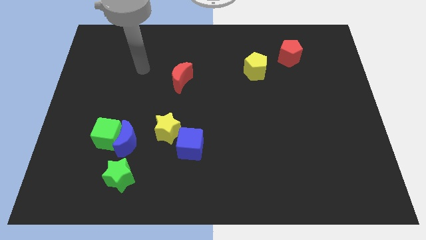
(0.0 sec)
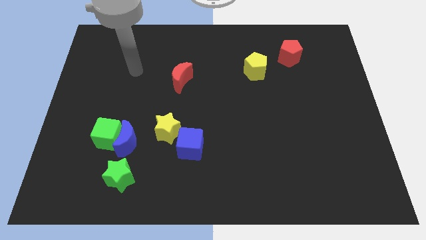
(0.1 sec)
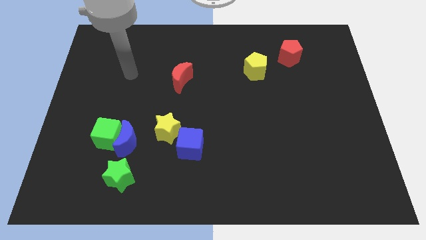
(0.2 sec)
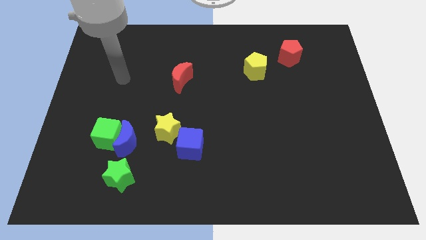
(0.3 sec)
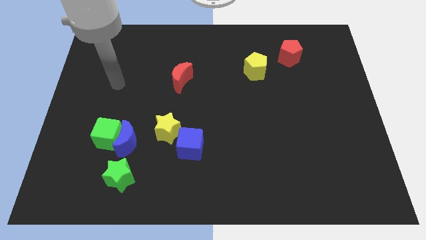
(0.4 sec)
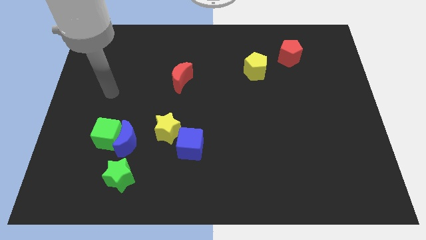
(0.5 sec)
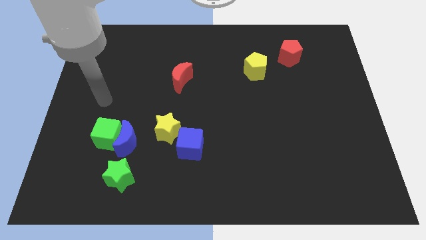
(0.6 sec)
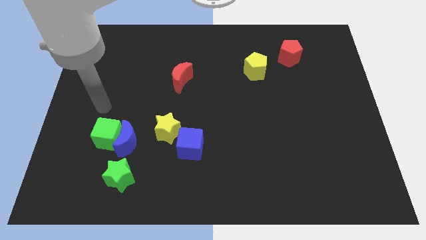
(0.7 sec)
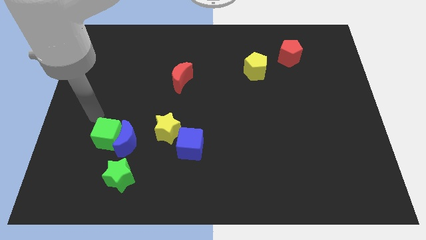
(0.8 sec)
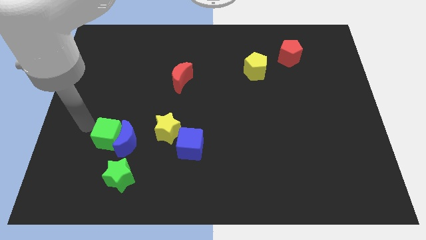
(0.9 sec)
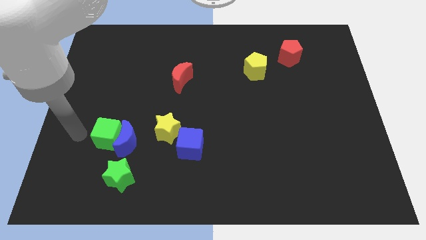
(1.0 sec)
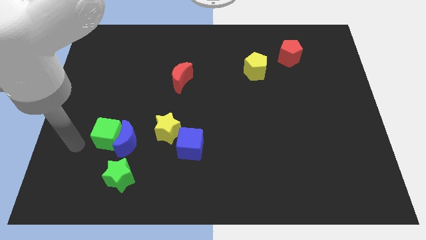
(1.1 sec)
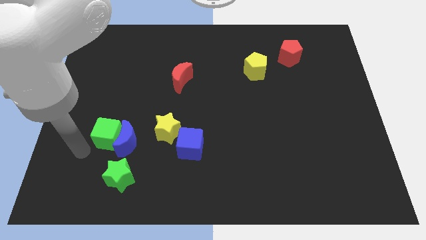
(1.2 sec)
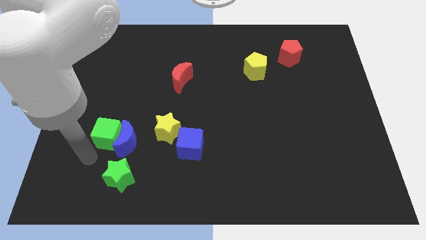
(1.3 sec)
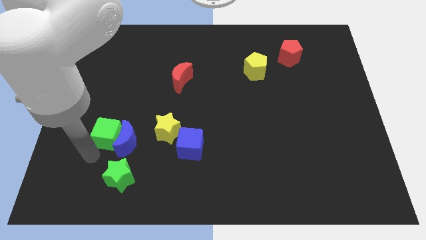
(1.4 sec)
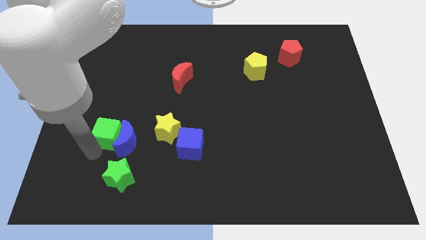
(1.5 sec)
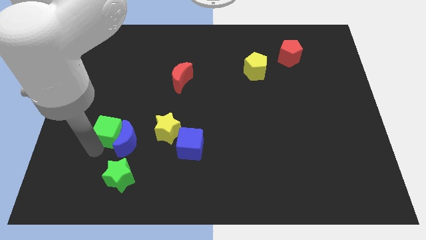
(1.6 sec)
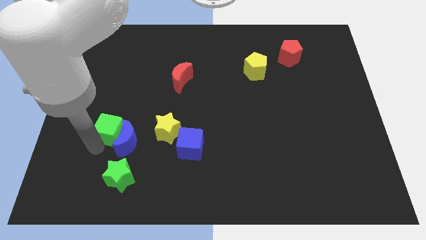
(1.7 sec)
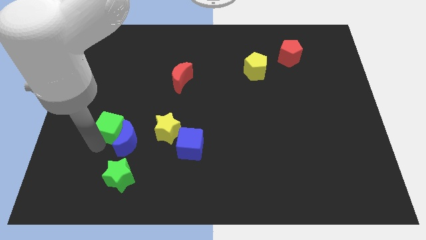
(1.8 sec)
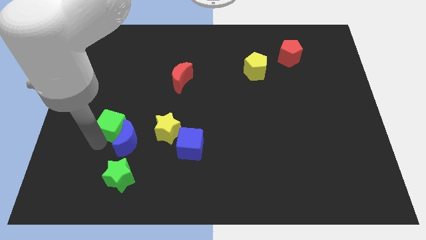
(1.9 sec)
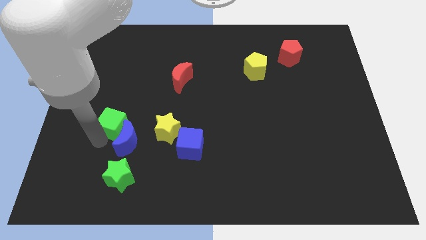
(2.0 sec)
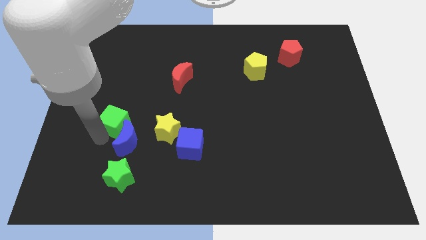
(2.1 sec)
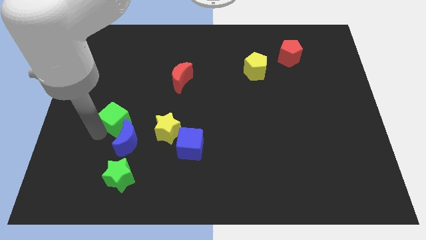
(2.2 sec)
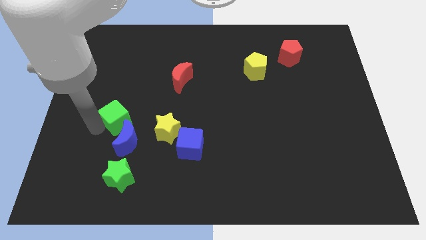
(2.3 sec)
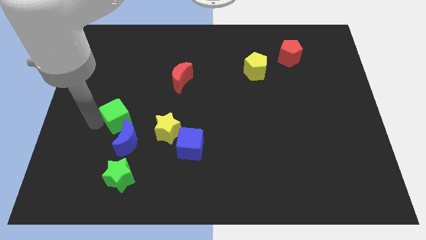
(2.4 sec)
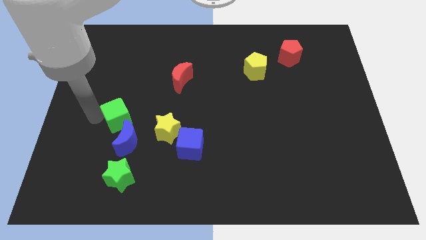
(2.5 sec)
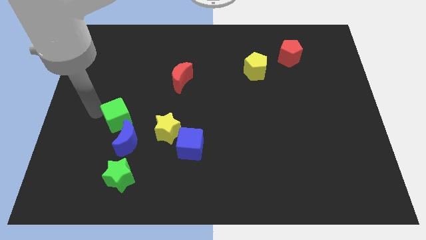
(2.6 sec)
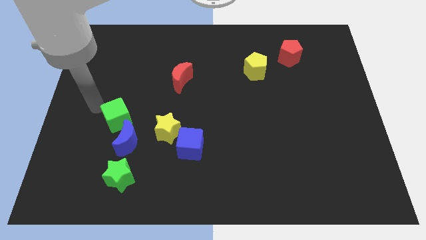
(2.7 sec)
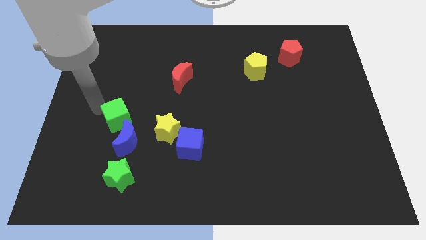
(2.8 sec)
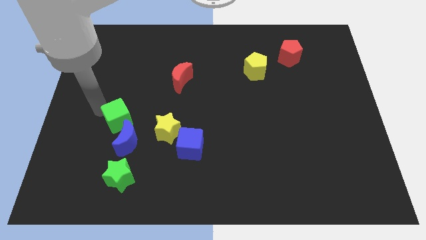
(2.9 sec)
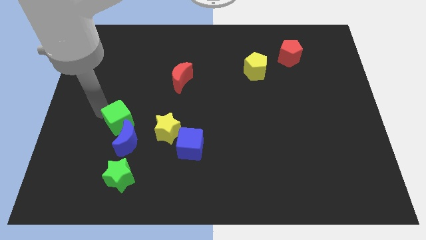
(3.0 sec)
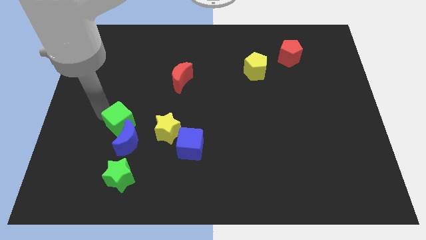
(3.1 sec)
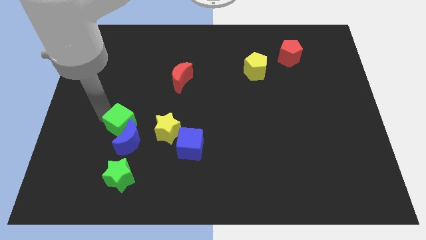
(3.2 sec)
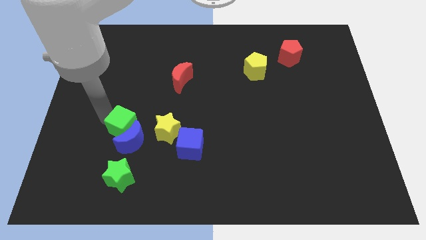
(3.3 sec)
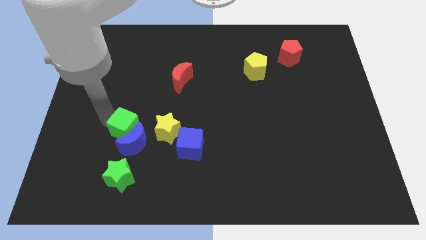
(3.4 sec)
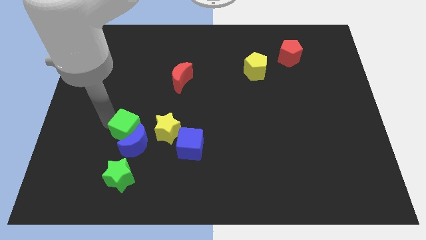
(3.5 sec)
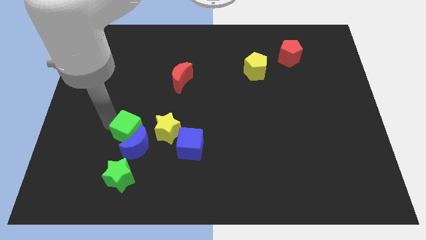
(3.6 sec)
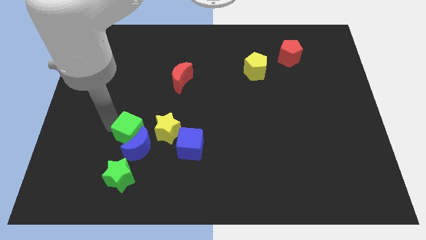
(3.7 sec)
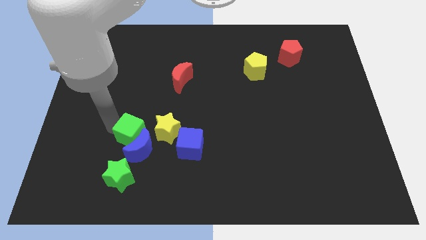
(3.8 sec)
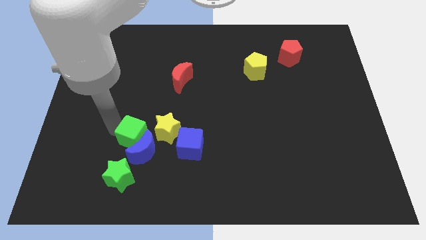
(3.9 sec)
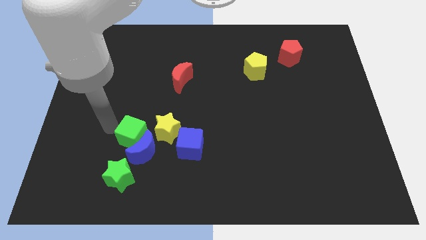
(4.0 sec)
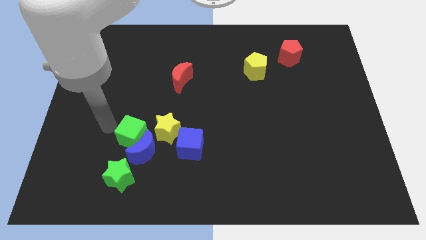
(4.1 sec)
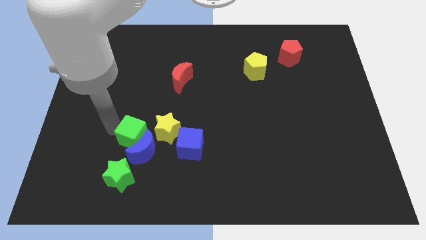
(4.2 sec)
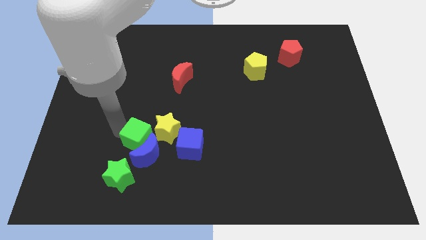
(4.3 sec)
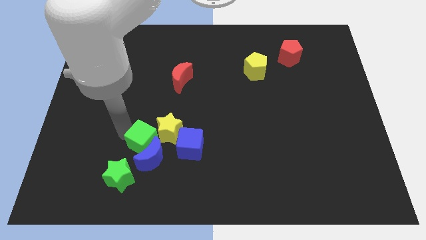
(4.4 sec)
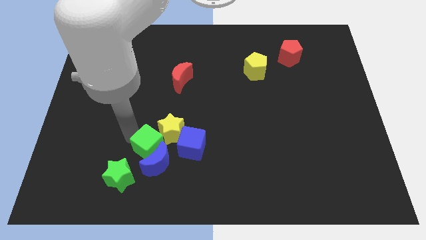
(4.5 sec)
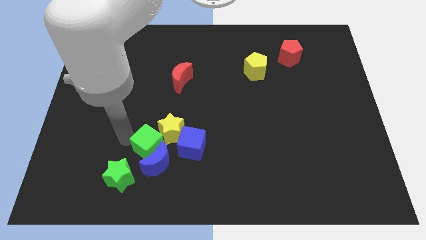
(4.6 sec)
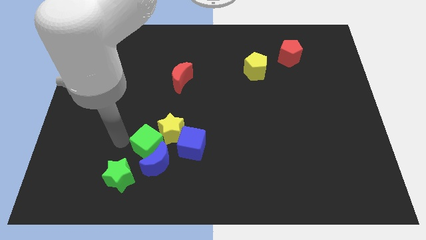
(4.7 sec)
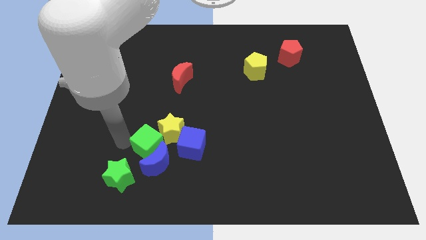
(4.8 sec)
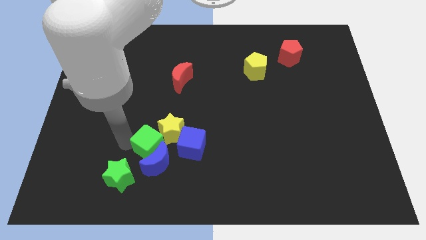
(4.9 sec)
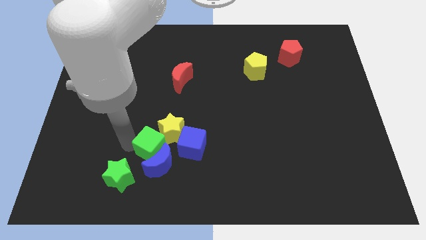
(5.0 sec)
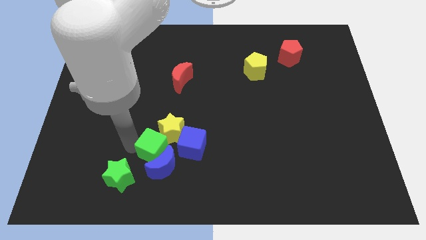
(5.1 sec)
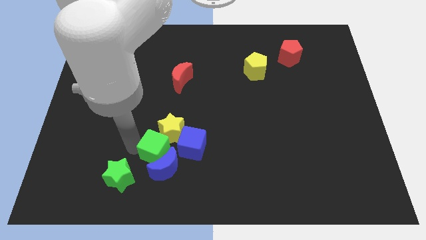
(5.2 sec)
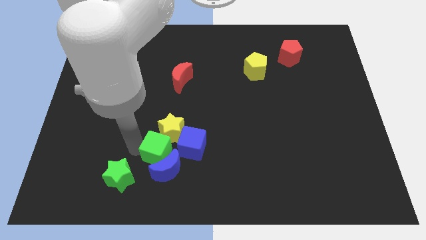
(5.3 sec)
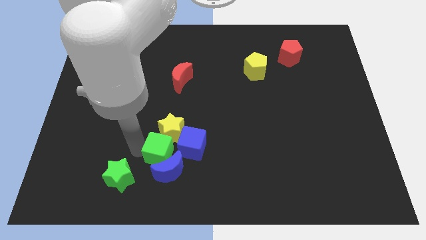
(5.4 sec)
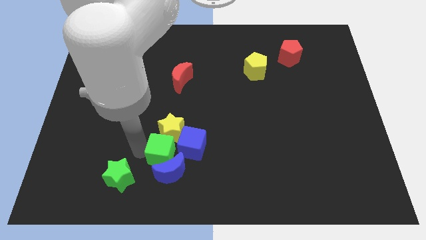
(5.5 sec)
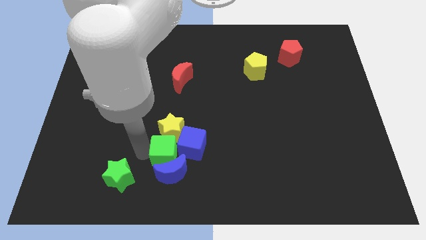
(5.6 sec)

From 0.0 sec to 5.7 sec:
slide the green cube close to the blue cube

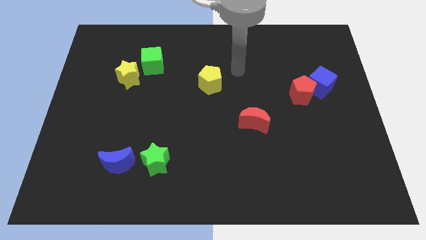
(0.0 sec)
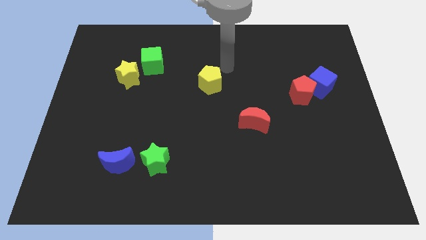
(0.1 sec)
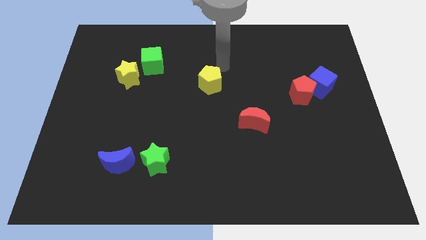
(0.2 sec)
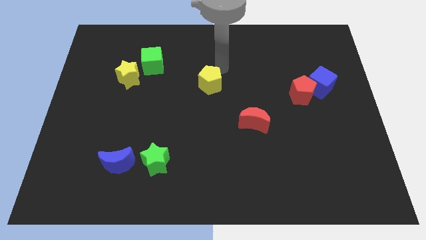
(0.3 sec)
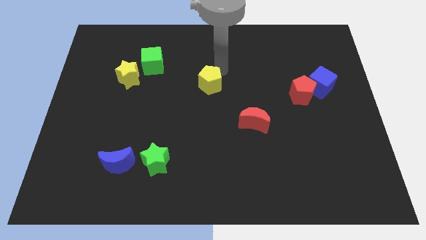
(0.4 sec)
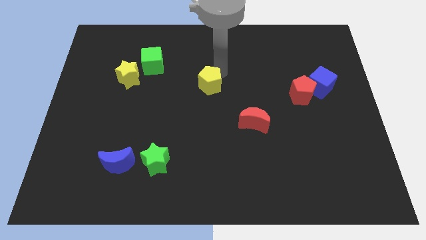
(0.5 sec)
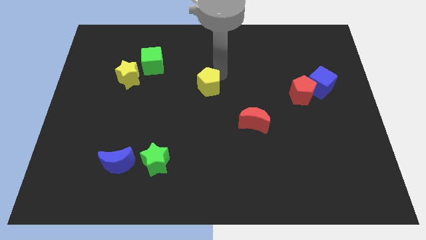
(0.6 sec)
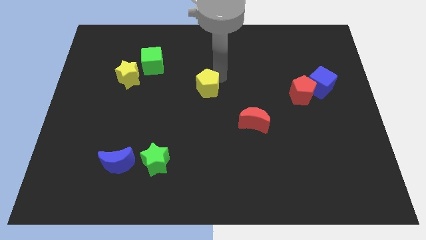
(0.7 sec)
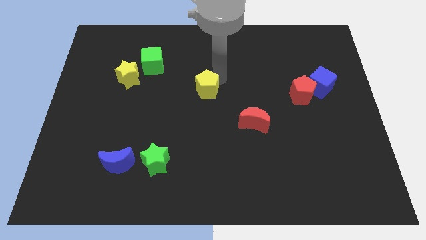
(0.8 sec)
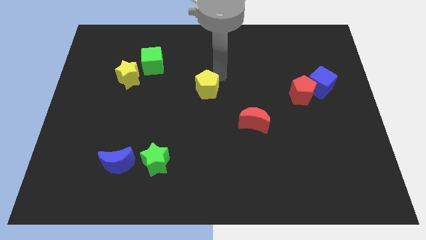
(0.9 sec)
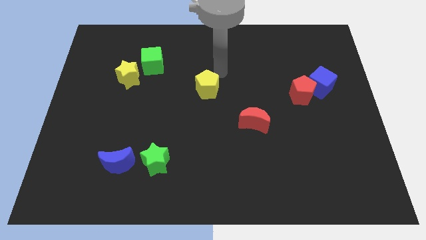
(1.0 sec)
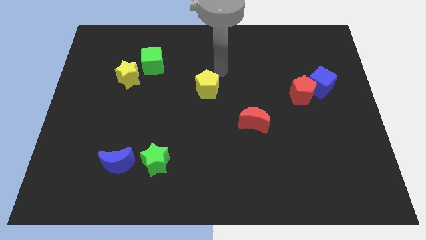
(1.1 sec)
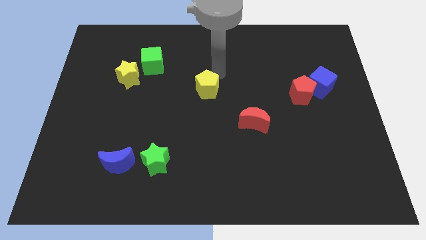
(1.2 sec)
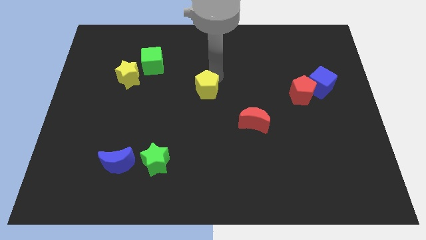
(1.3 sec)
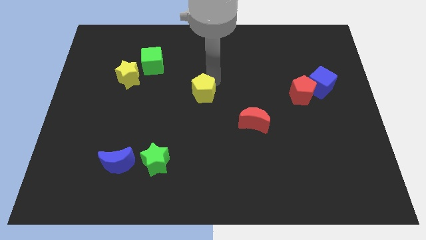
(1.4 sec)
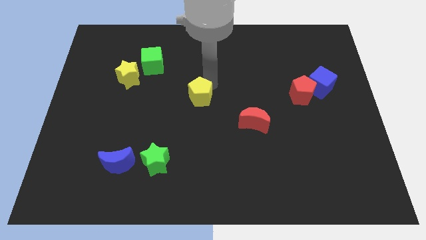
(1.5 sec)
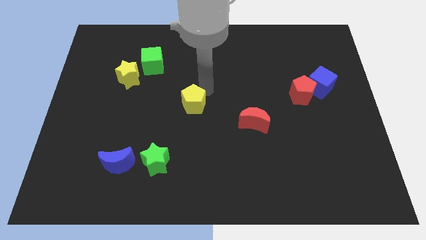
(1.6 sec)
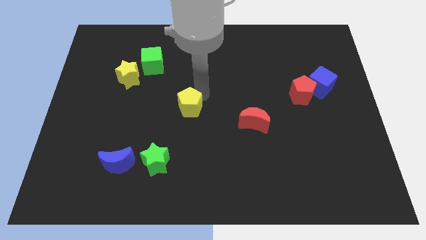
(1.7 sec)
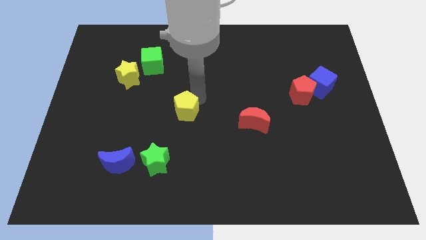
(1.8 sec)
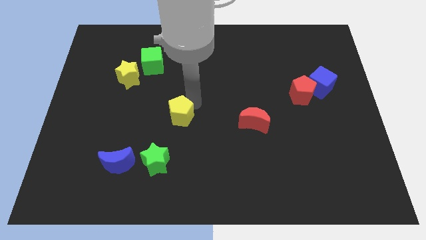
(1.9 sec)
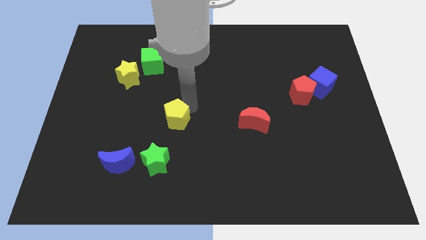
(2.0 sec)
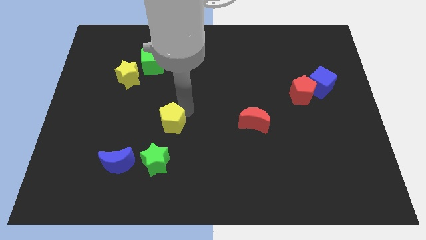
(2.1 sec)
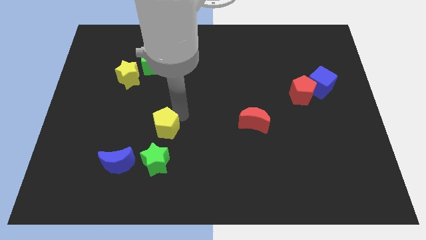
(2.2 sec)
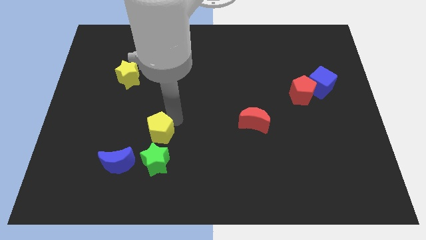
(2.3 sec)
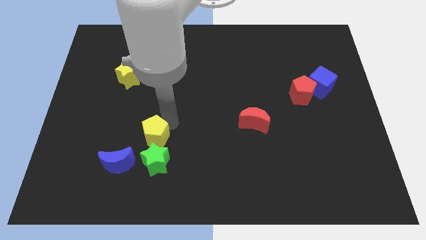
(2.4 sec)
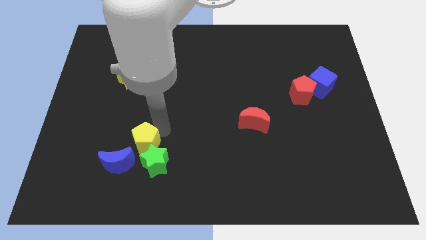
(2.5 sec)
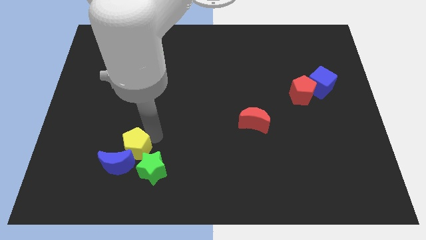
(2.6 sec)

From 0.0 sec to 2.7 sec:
slide the yellow pentagon close to the blue moon
